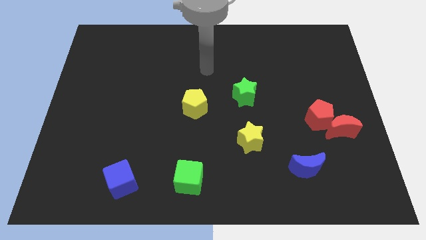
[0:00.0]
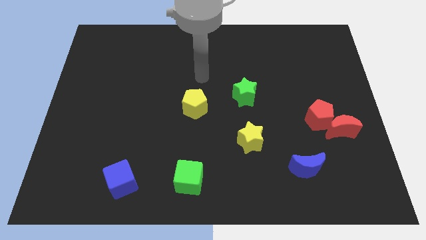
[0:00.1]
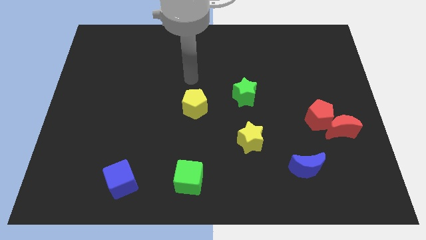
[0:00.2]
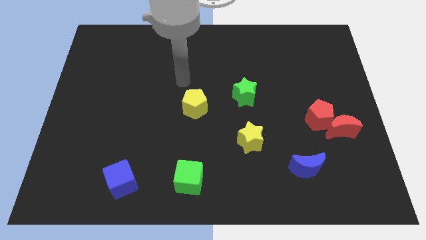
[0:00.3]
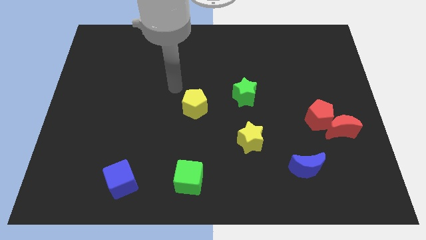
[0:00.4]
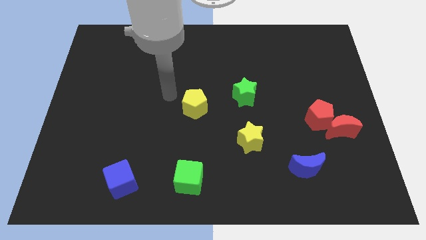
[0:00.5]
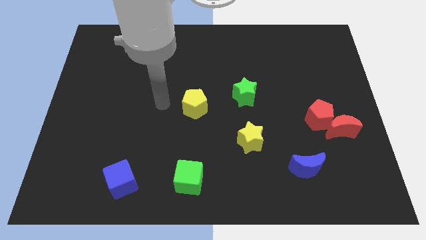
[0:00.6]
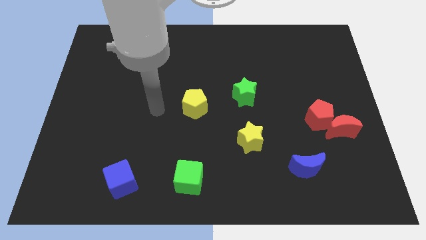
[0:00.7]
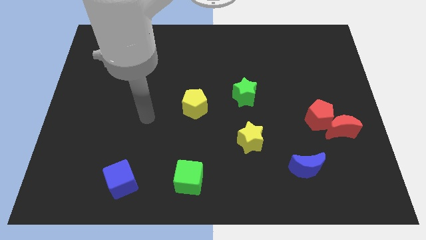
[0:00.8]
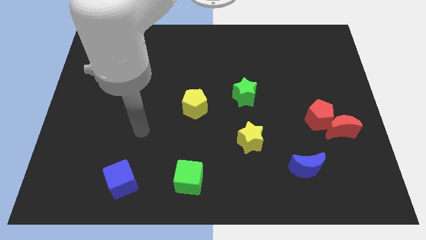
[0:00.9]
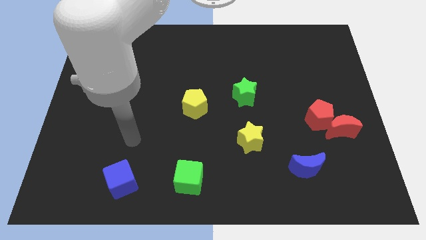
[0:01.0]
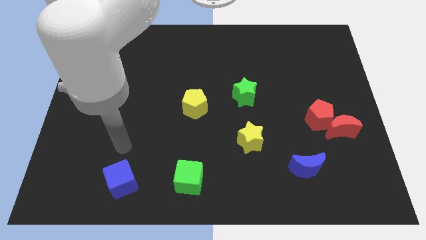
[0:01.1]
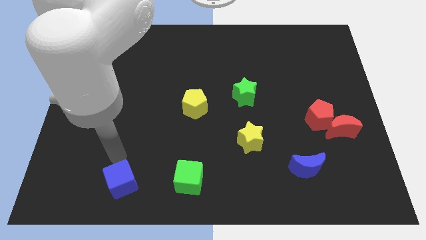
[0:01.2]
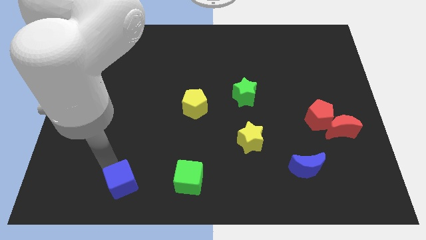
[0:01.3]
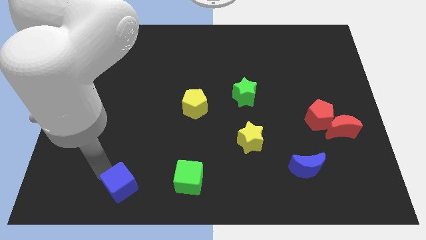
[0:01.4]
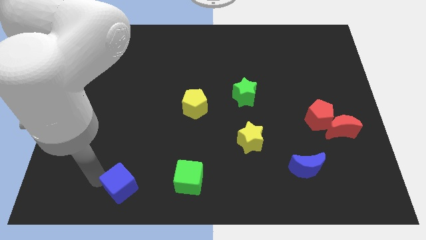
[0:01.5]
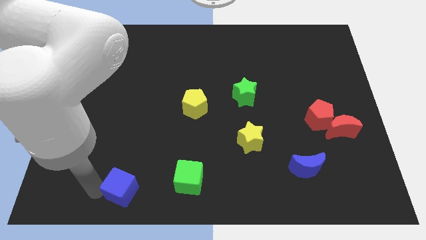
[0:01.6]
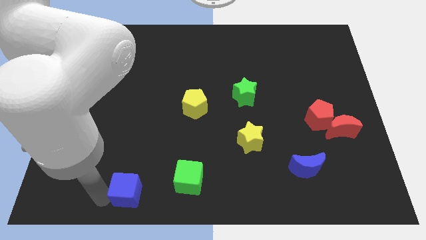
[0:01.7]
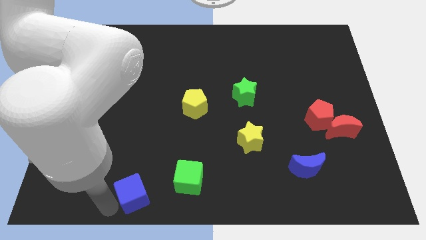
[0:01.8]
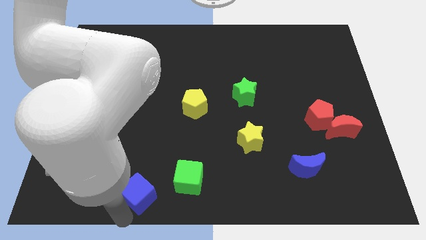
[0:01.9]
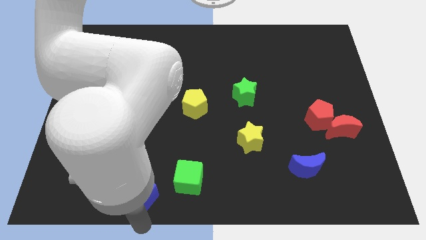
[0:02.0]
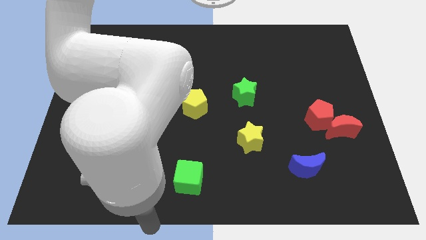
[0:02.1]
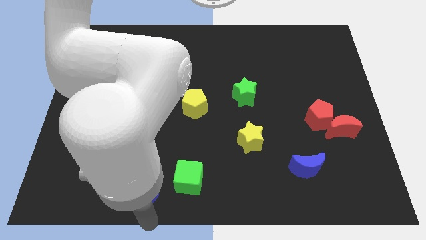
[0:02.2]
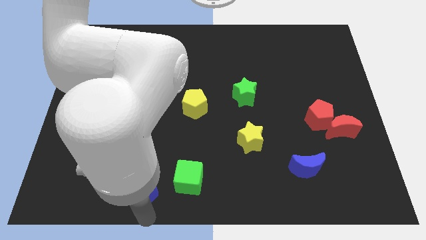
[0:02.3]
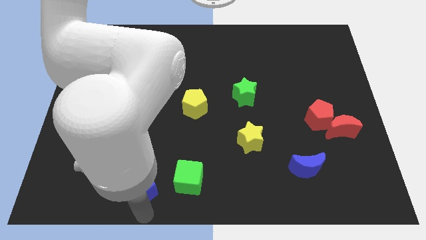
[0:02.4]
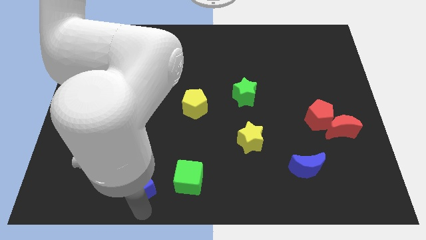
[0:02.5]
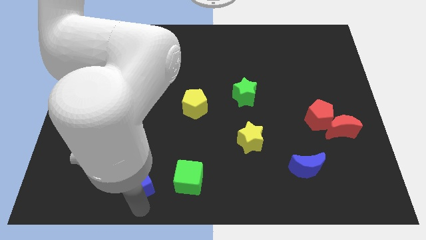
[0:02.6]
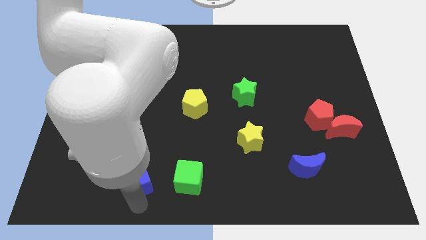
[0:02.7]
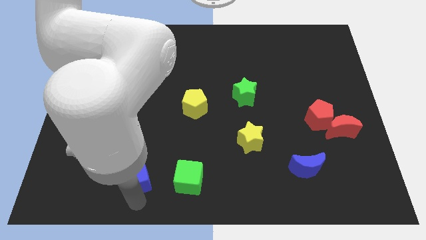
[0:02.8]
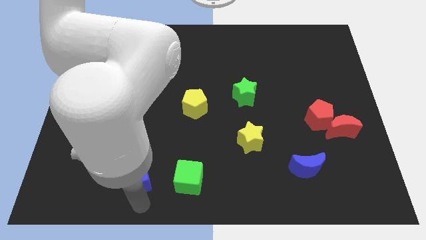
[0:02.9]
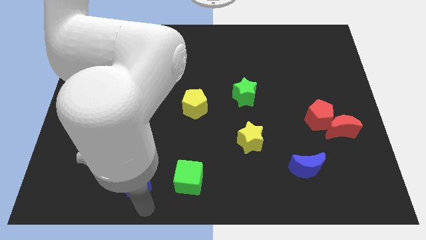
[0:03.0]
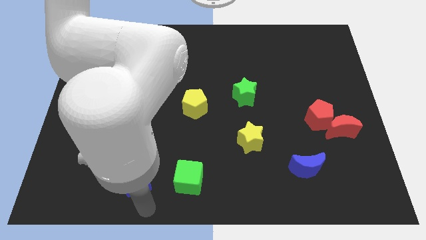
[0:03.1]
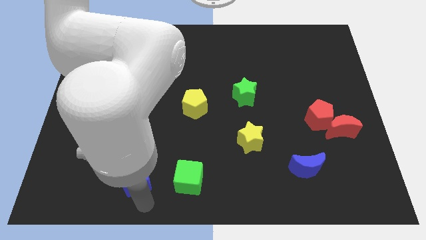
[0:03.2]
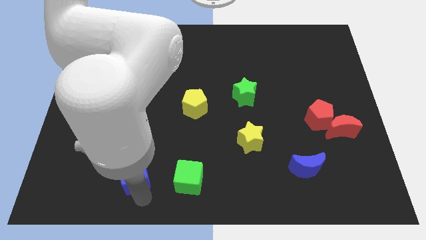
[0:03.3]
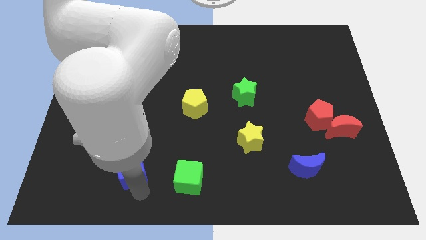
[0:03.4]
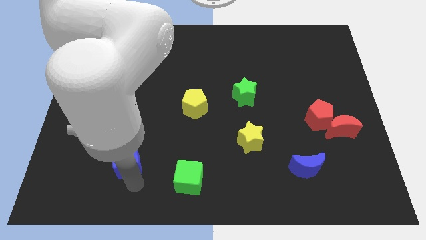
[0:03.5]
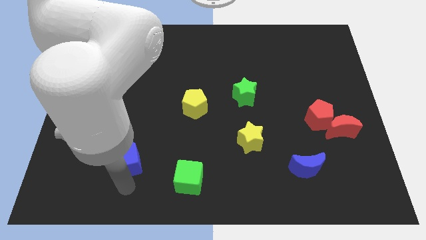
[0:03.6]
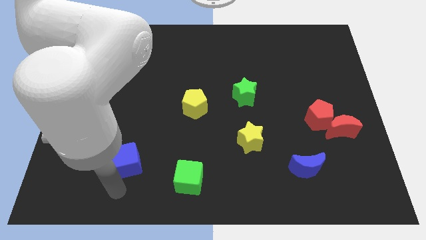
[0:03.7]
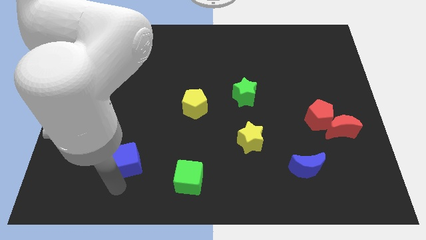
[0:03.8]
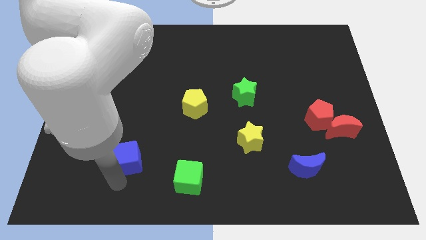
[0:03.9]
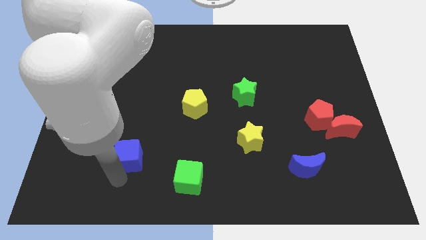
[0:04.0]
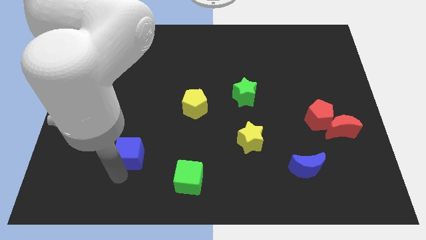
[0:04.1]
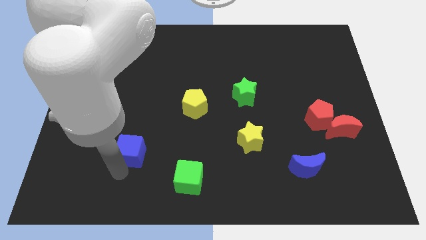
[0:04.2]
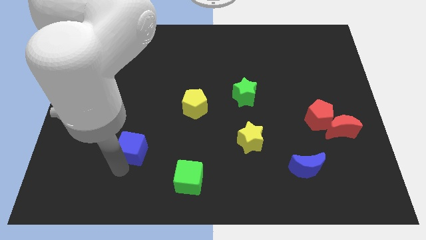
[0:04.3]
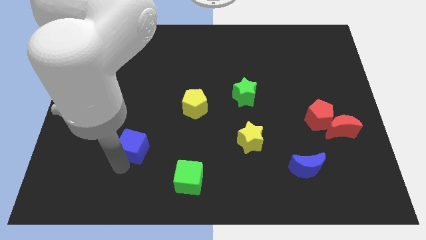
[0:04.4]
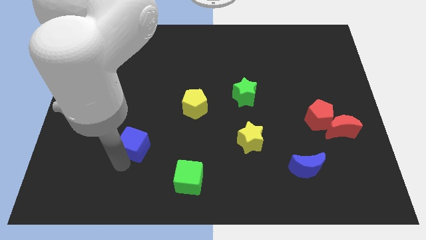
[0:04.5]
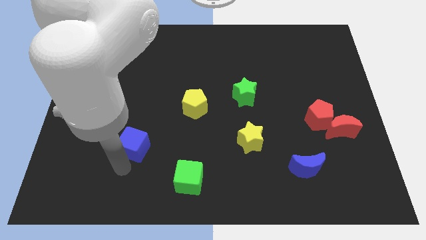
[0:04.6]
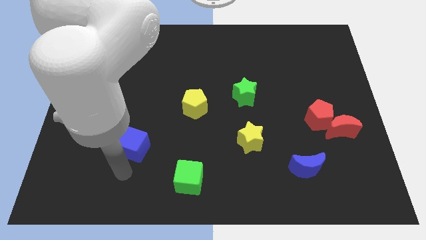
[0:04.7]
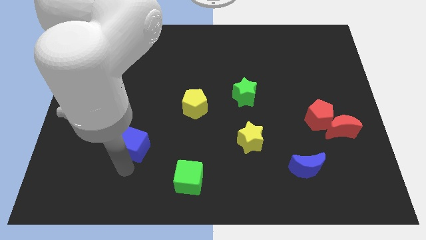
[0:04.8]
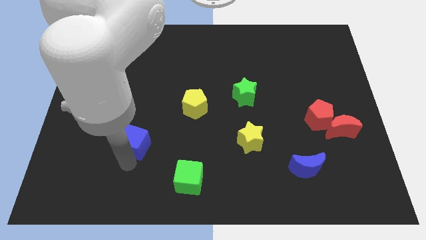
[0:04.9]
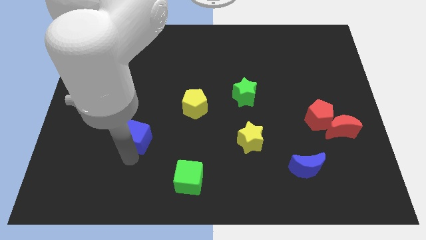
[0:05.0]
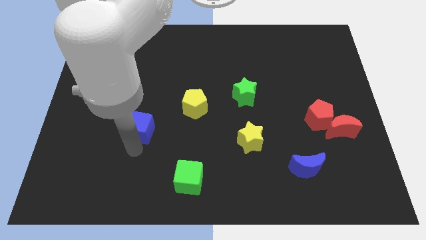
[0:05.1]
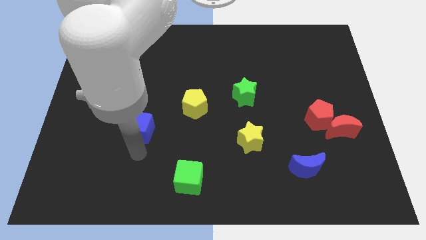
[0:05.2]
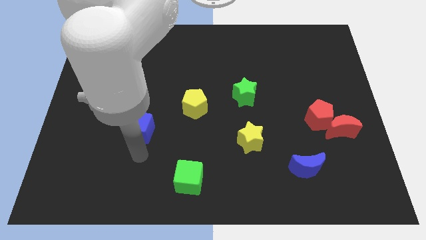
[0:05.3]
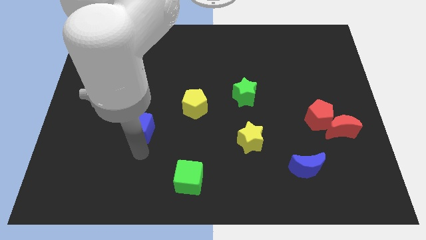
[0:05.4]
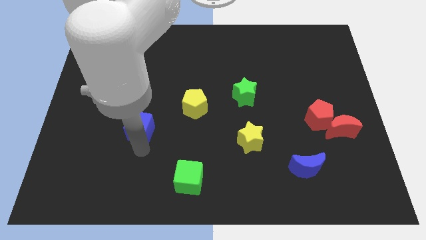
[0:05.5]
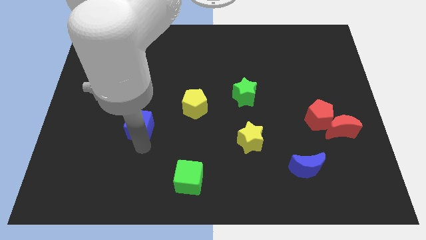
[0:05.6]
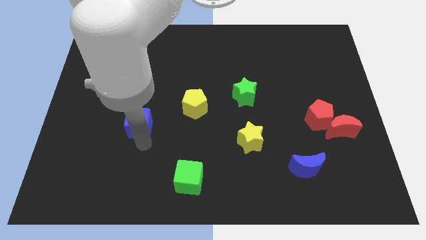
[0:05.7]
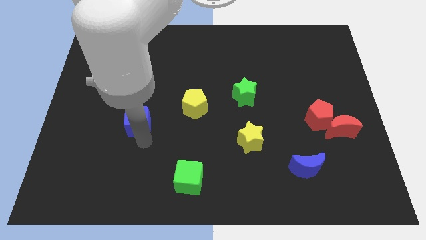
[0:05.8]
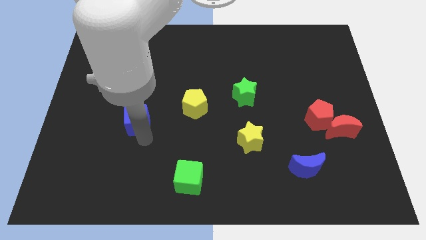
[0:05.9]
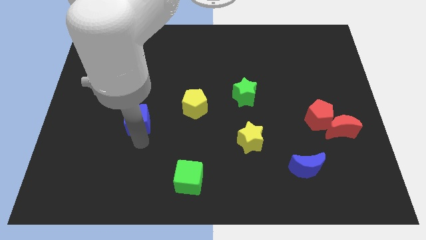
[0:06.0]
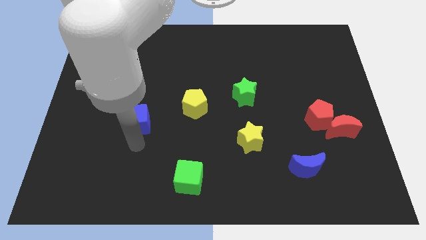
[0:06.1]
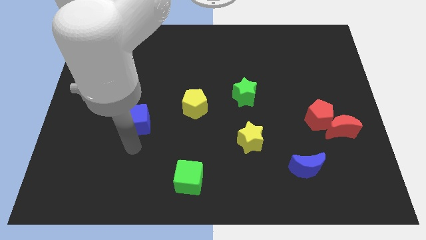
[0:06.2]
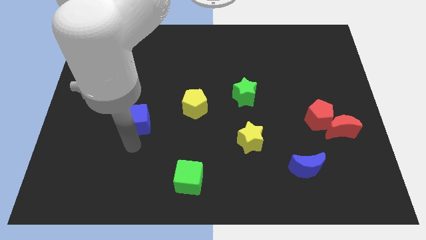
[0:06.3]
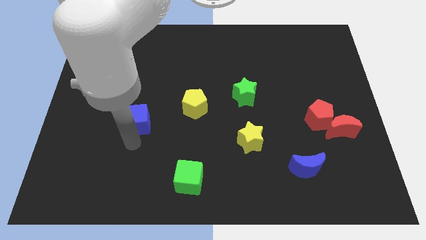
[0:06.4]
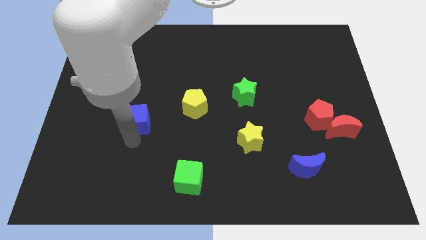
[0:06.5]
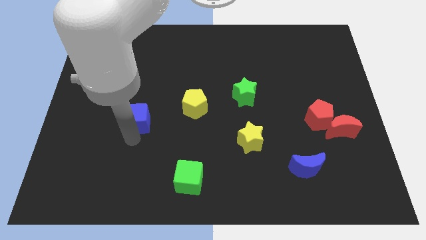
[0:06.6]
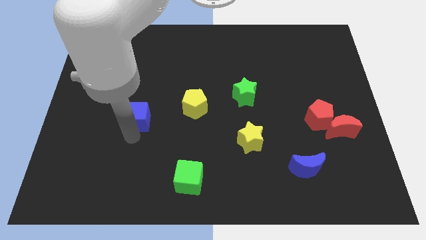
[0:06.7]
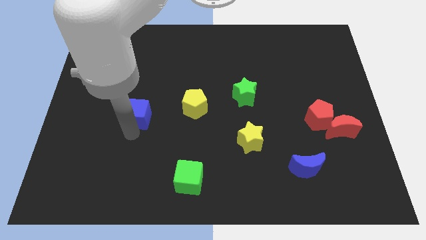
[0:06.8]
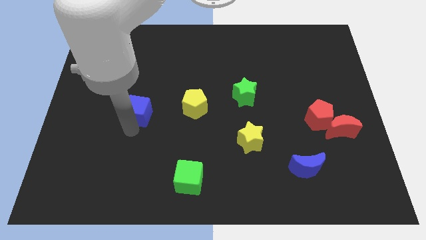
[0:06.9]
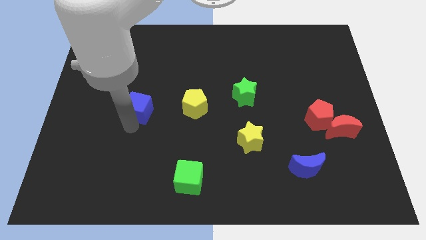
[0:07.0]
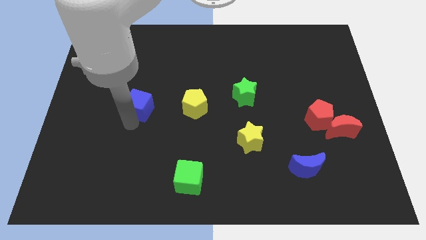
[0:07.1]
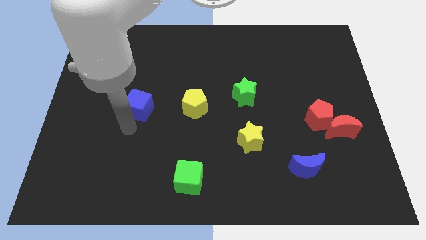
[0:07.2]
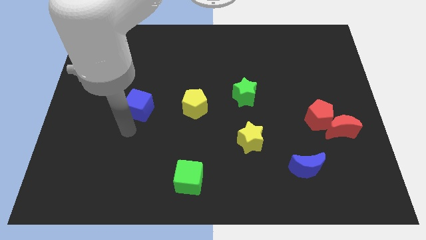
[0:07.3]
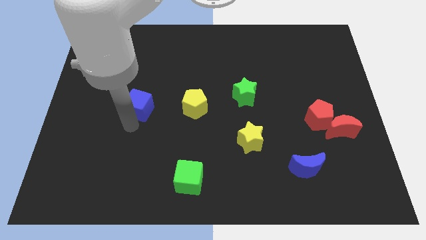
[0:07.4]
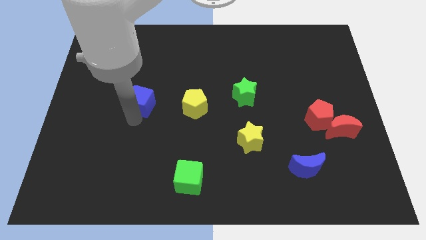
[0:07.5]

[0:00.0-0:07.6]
push the blue cube upwards

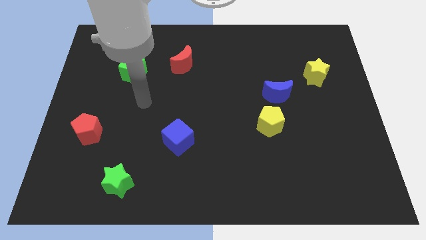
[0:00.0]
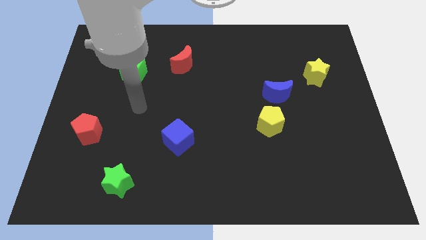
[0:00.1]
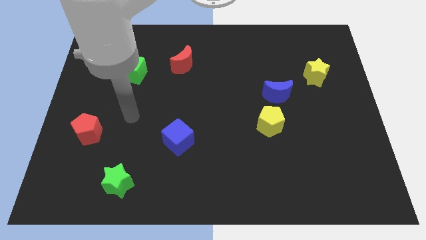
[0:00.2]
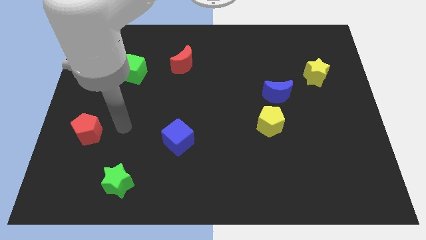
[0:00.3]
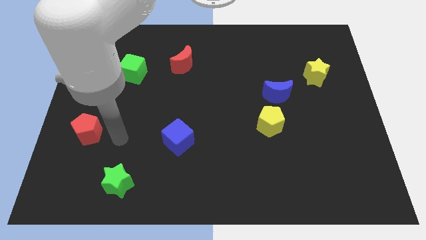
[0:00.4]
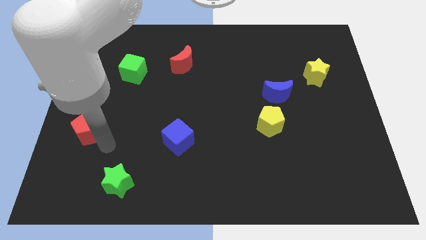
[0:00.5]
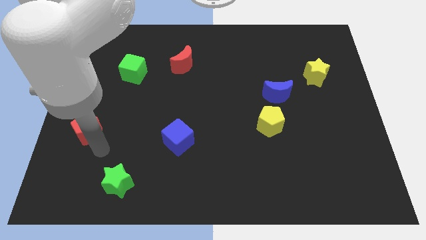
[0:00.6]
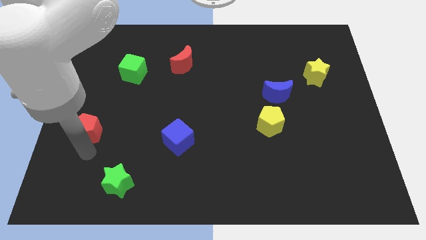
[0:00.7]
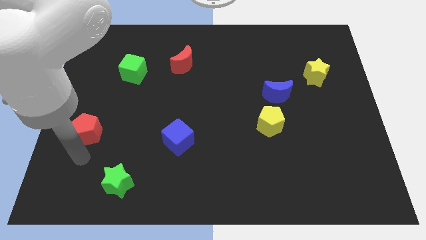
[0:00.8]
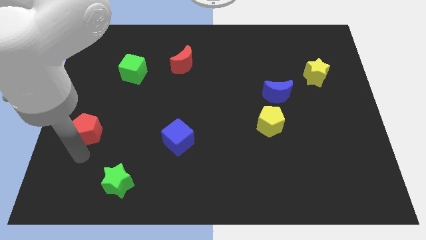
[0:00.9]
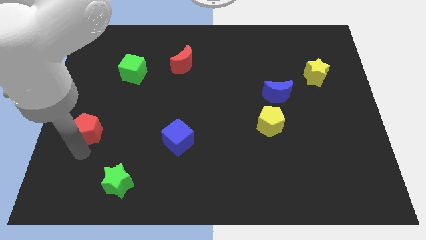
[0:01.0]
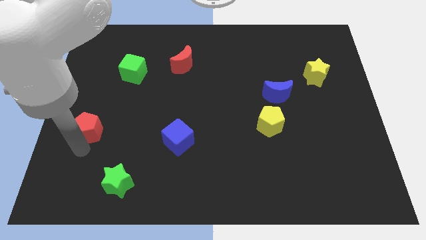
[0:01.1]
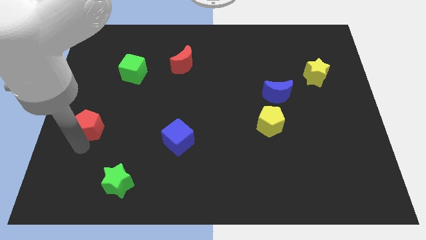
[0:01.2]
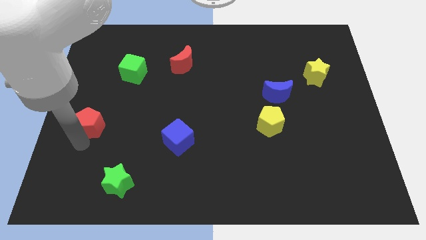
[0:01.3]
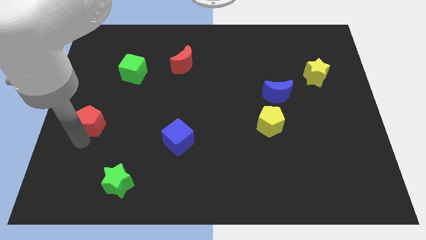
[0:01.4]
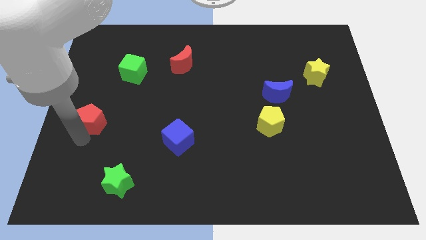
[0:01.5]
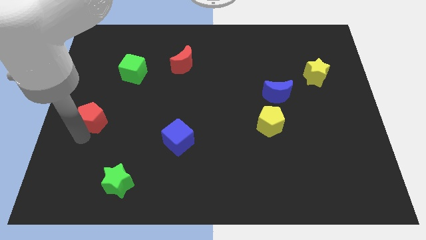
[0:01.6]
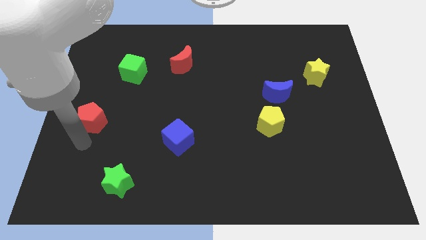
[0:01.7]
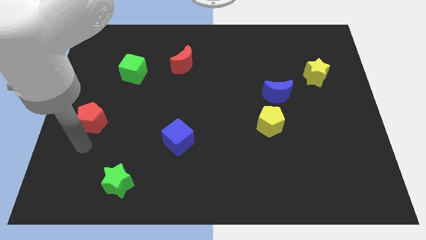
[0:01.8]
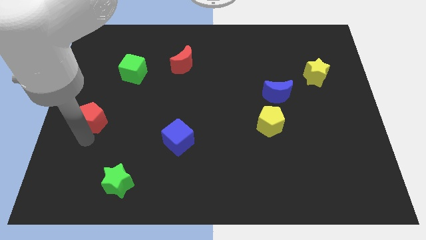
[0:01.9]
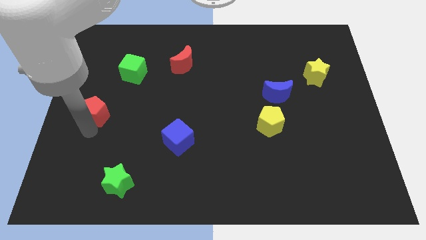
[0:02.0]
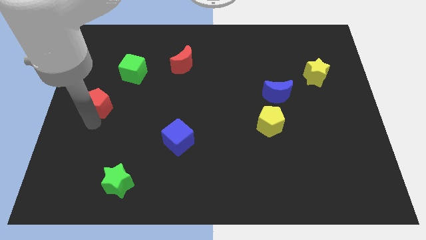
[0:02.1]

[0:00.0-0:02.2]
slightly move the red pentagon upwards
